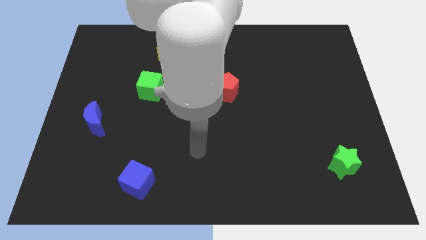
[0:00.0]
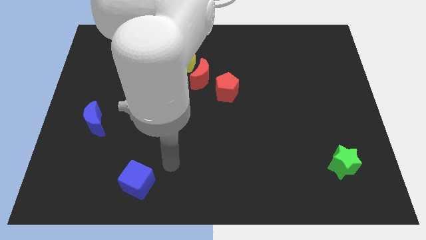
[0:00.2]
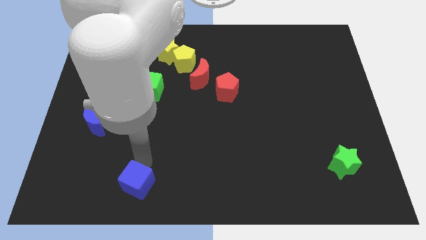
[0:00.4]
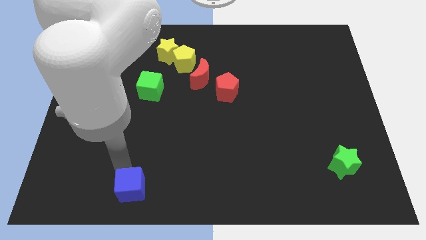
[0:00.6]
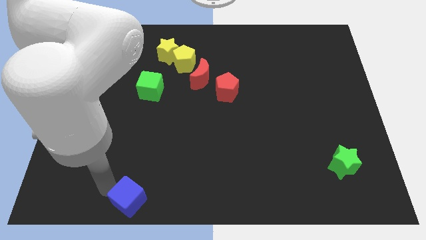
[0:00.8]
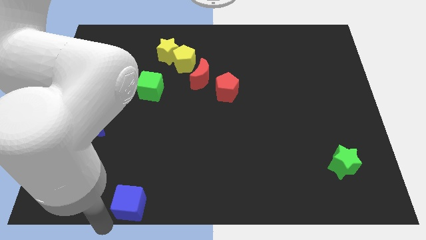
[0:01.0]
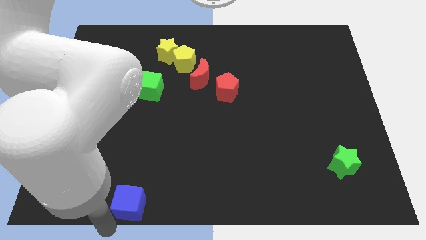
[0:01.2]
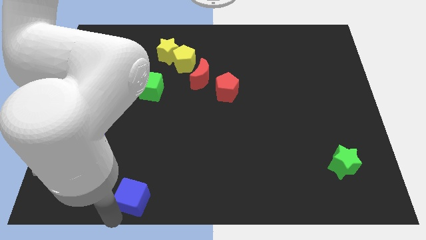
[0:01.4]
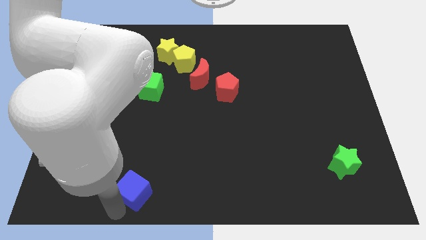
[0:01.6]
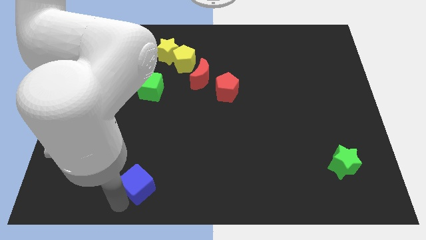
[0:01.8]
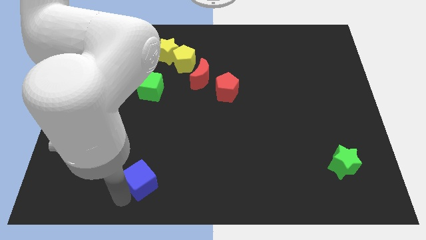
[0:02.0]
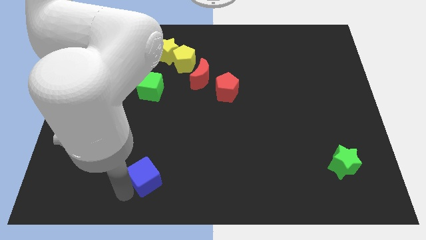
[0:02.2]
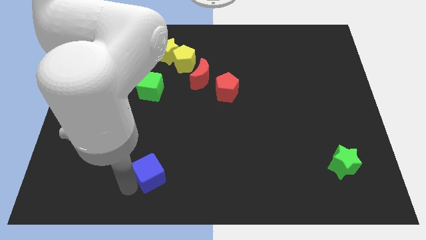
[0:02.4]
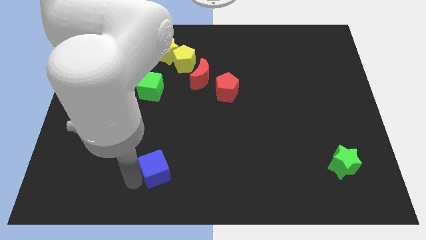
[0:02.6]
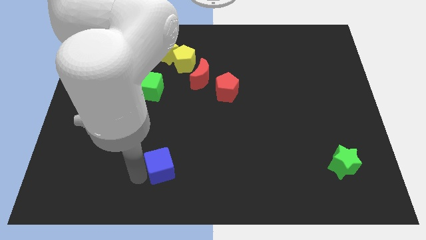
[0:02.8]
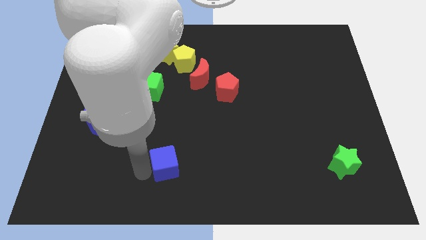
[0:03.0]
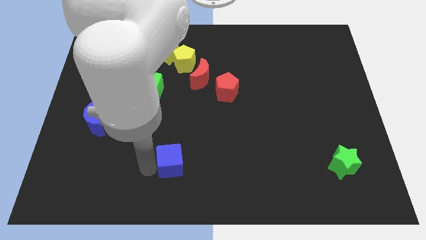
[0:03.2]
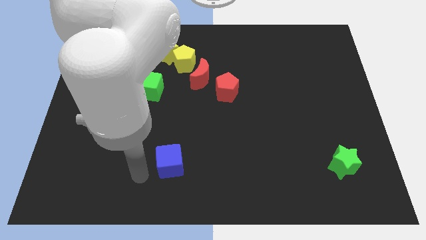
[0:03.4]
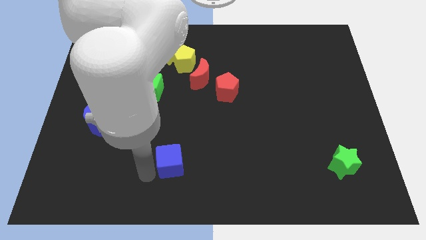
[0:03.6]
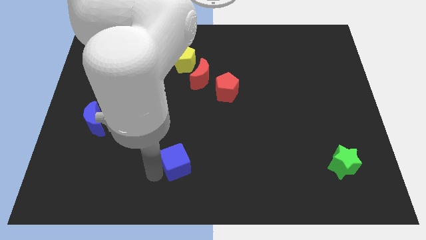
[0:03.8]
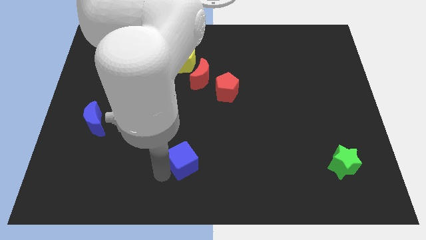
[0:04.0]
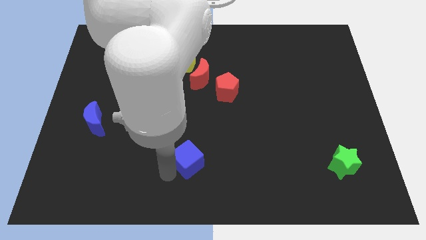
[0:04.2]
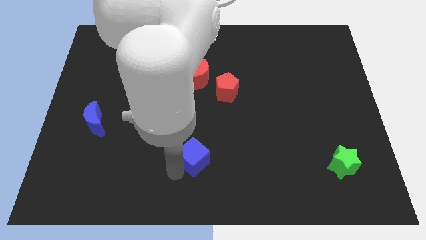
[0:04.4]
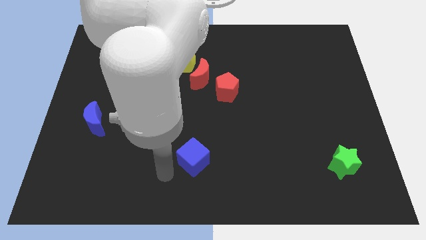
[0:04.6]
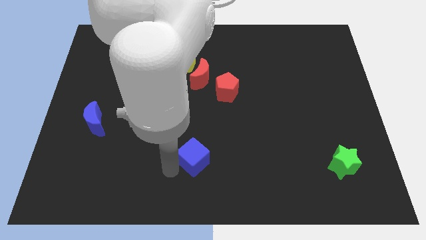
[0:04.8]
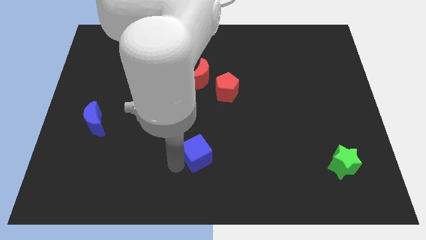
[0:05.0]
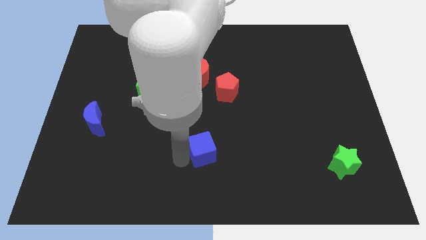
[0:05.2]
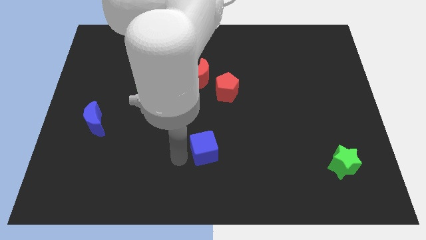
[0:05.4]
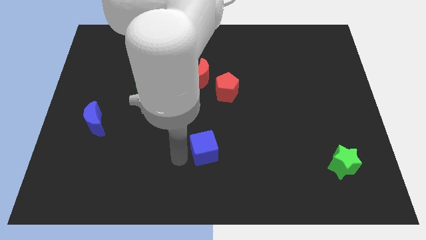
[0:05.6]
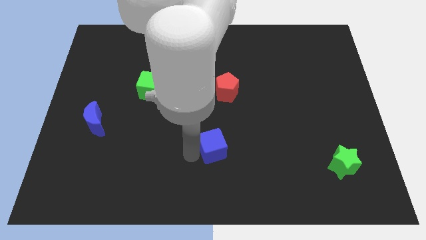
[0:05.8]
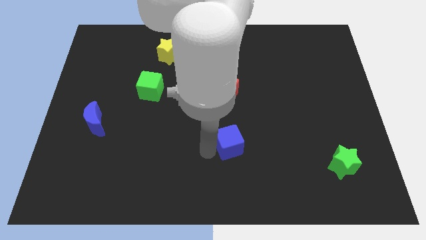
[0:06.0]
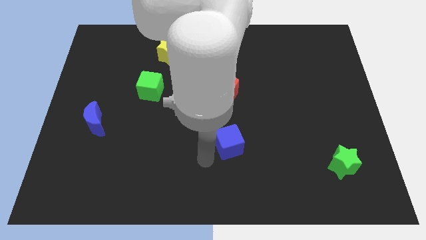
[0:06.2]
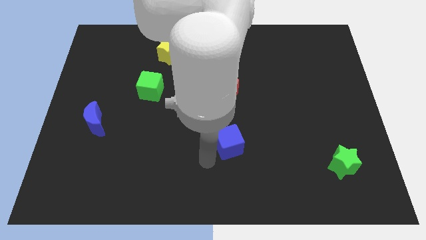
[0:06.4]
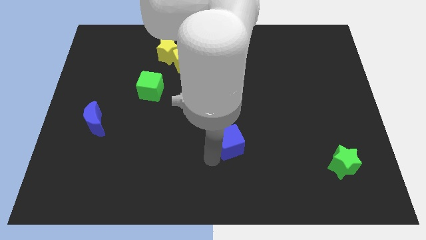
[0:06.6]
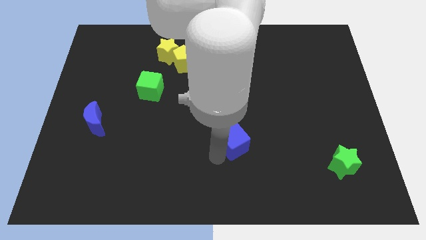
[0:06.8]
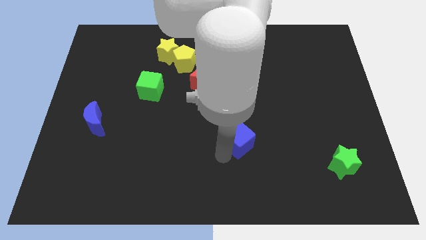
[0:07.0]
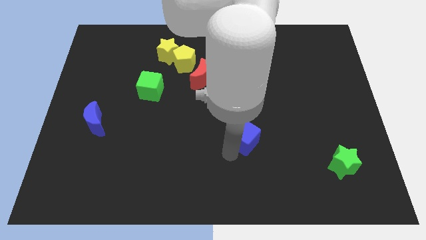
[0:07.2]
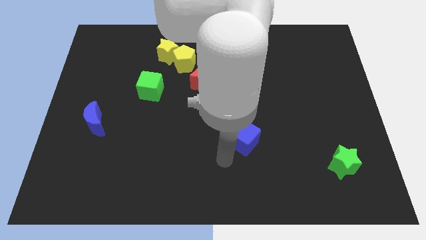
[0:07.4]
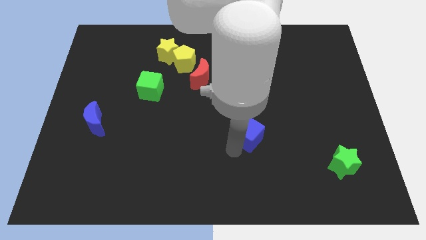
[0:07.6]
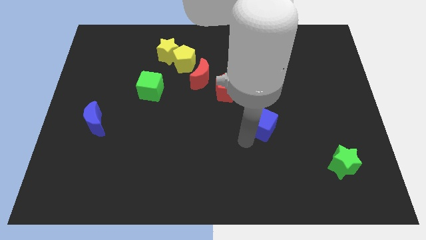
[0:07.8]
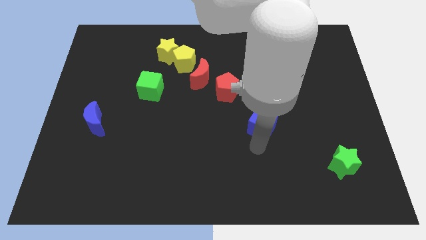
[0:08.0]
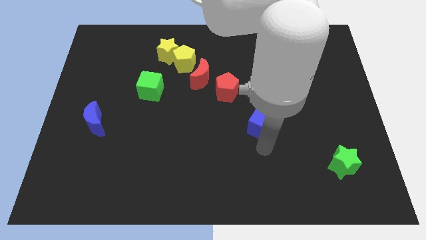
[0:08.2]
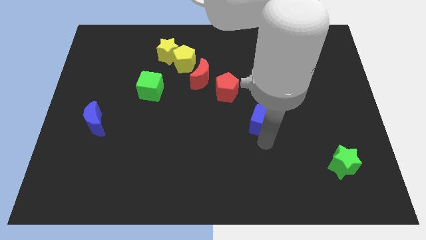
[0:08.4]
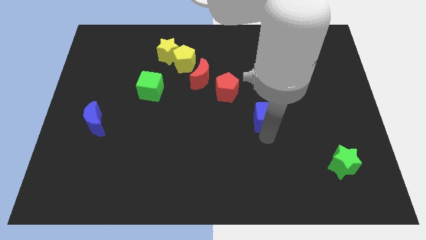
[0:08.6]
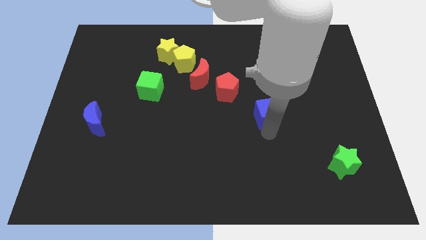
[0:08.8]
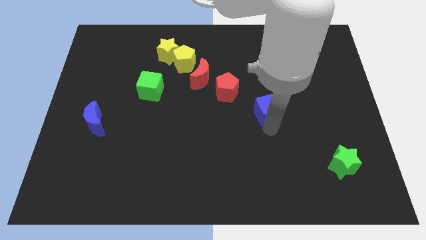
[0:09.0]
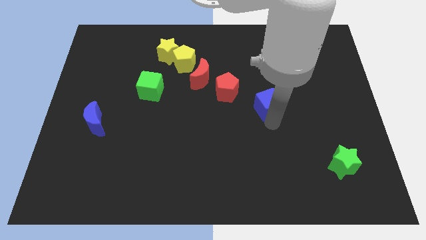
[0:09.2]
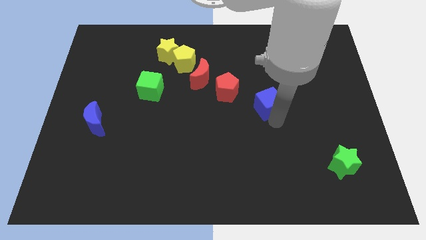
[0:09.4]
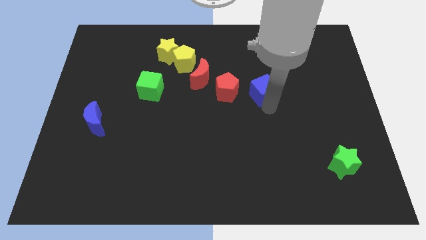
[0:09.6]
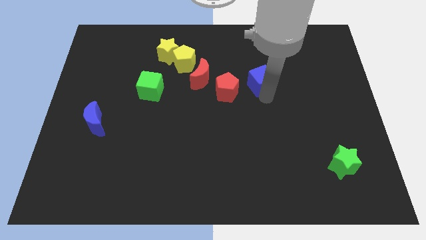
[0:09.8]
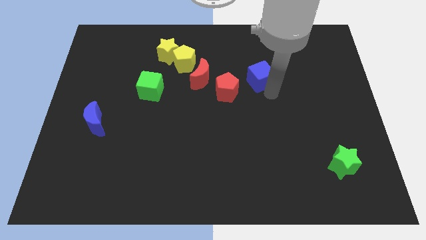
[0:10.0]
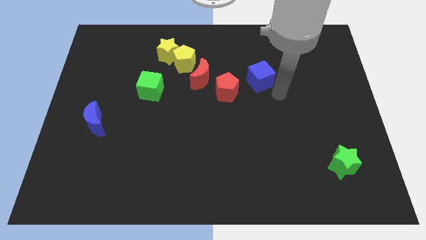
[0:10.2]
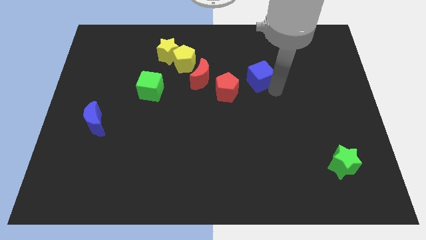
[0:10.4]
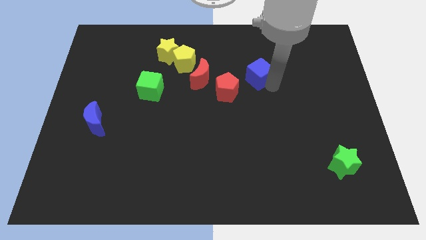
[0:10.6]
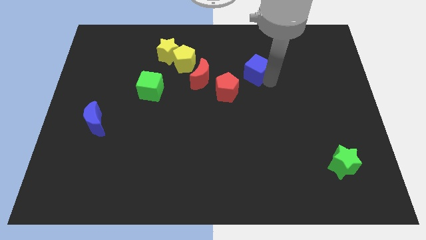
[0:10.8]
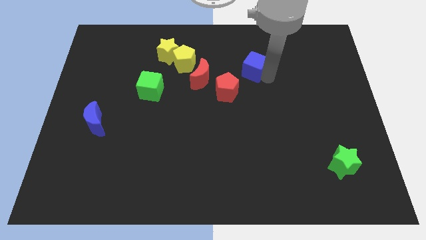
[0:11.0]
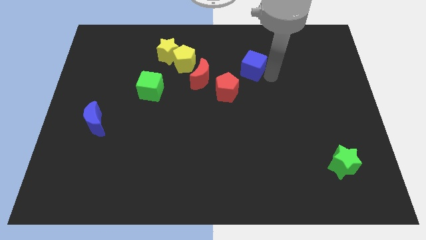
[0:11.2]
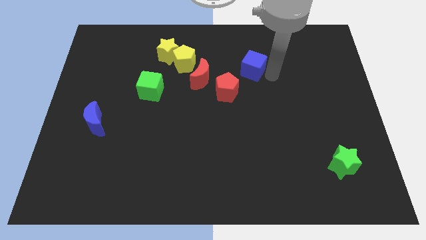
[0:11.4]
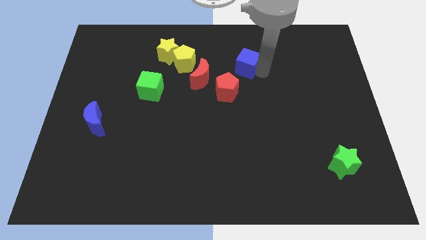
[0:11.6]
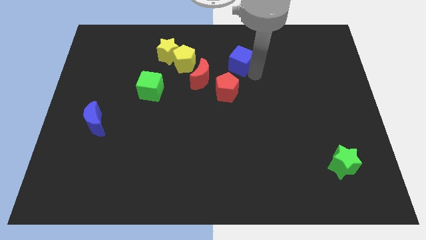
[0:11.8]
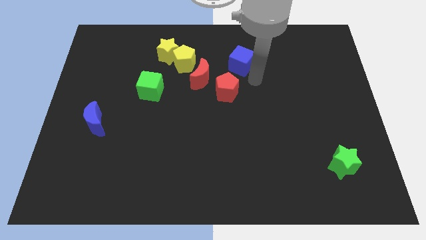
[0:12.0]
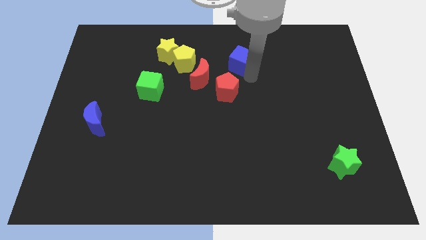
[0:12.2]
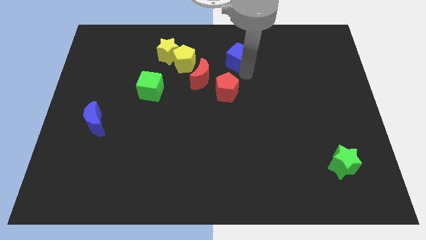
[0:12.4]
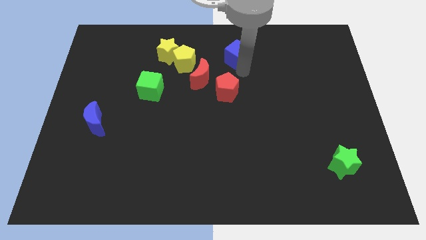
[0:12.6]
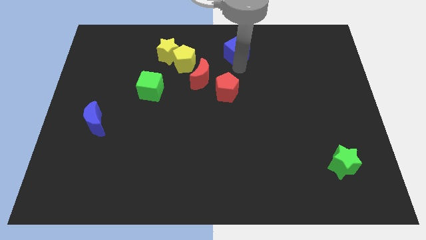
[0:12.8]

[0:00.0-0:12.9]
move the blue cube to the top side
